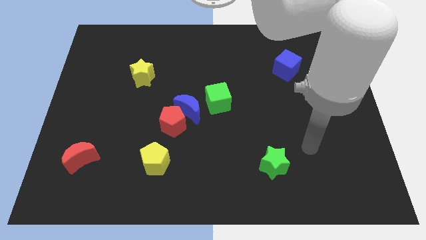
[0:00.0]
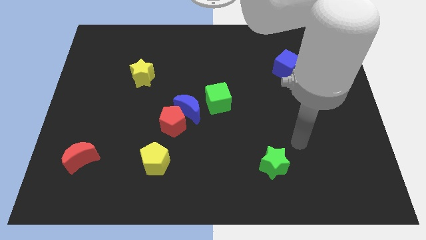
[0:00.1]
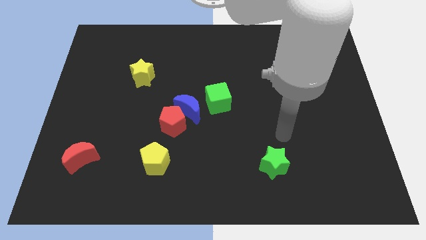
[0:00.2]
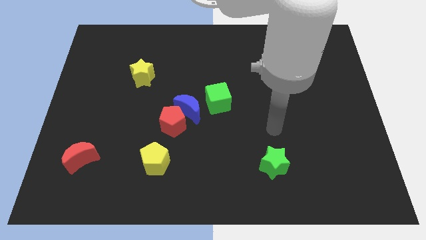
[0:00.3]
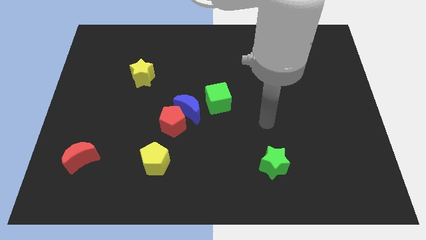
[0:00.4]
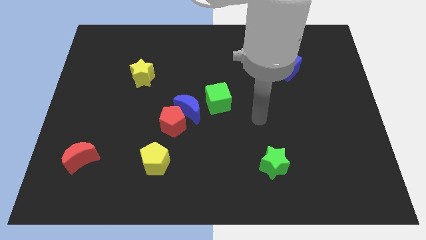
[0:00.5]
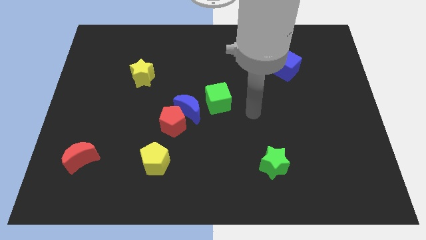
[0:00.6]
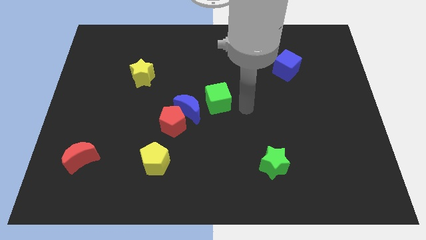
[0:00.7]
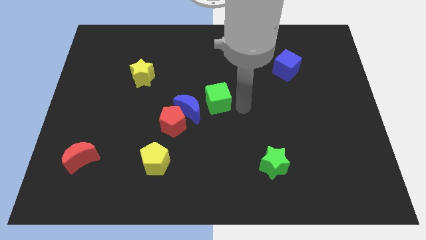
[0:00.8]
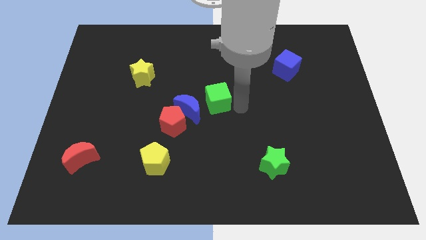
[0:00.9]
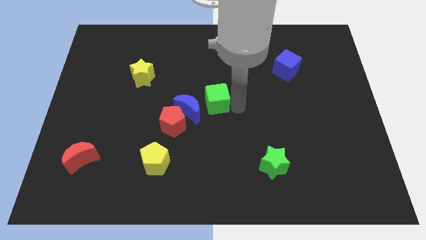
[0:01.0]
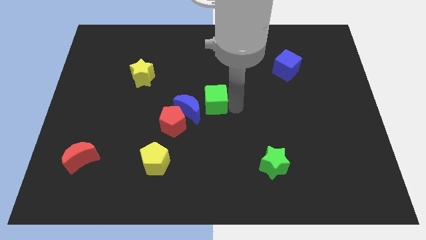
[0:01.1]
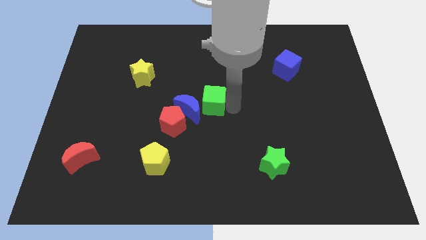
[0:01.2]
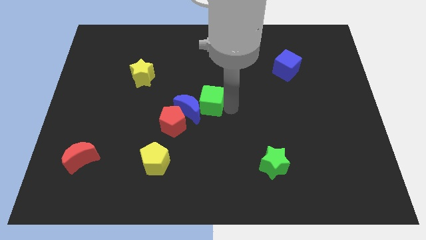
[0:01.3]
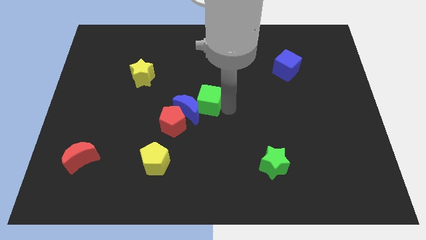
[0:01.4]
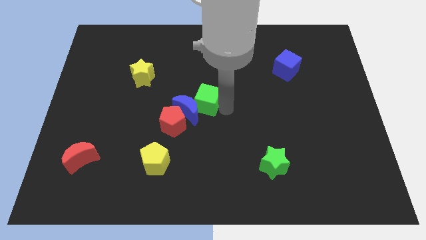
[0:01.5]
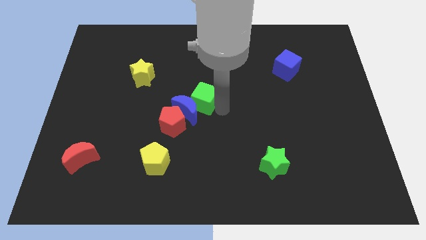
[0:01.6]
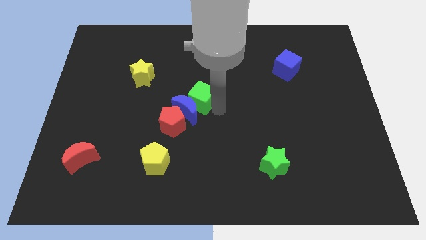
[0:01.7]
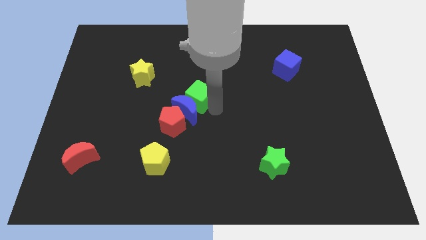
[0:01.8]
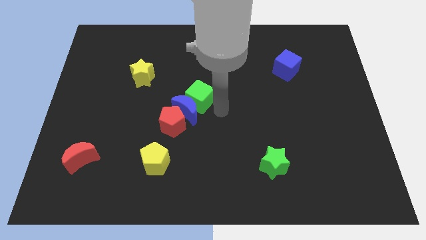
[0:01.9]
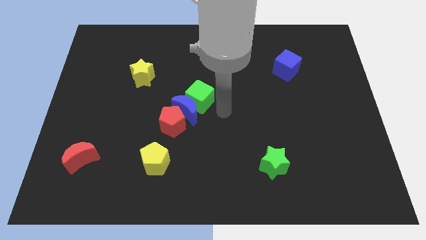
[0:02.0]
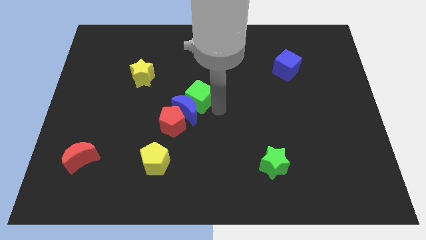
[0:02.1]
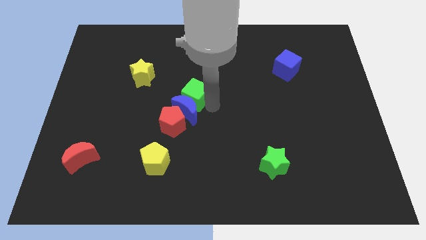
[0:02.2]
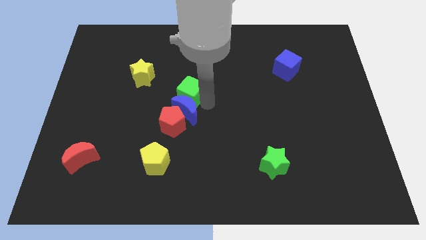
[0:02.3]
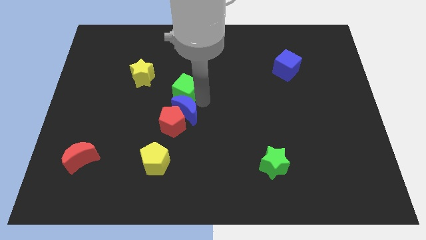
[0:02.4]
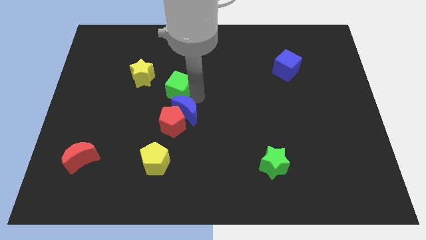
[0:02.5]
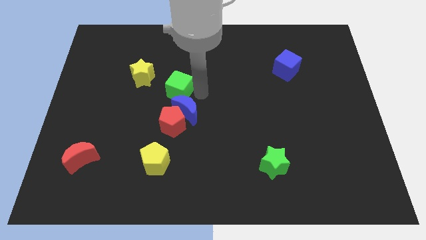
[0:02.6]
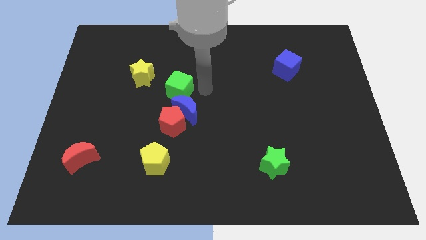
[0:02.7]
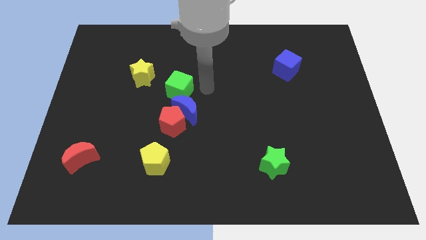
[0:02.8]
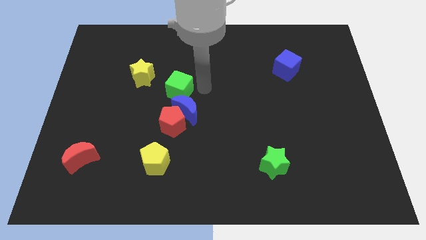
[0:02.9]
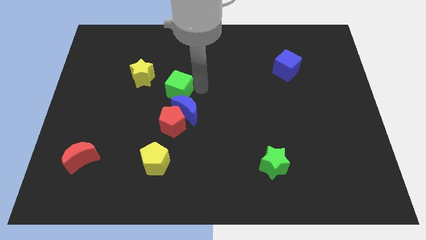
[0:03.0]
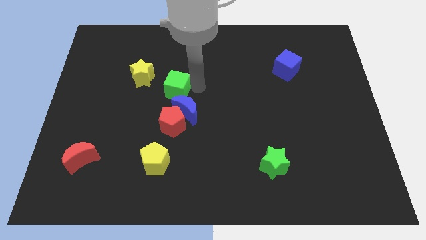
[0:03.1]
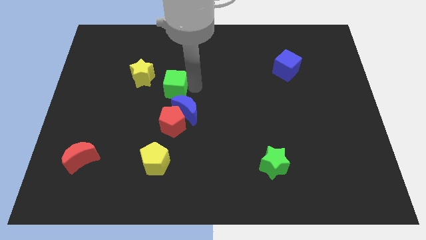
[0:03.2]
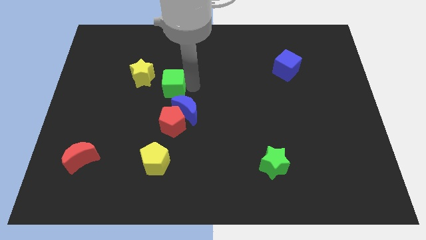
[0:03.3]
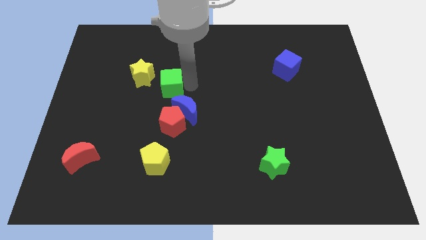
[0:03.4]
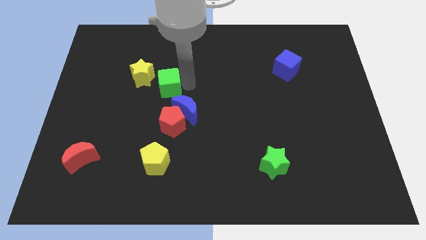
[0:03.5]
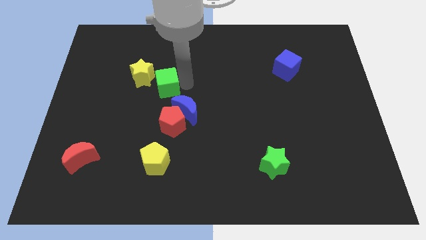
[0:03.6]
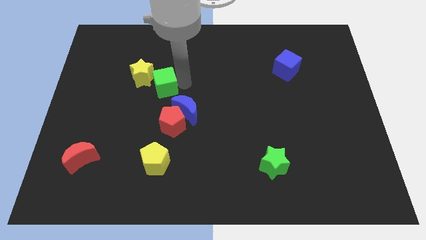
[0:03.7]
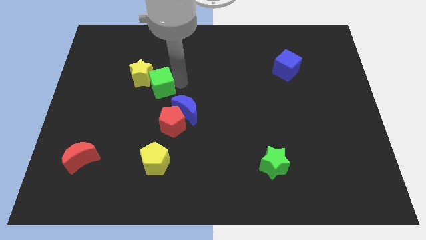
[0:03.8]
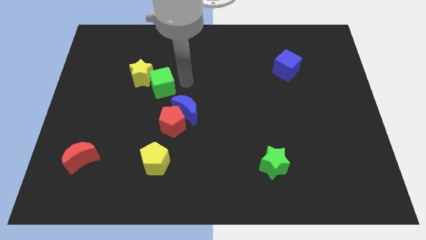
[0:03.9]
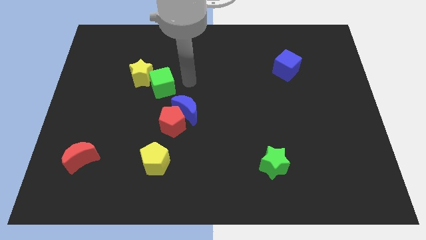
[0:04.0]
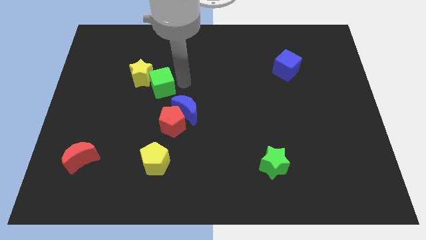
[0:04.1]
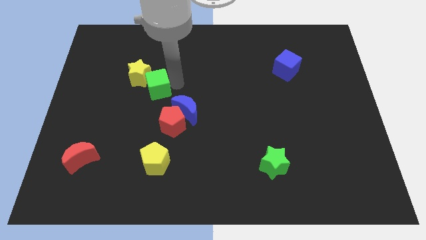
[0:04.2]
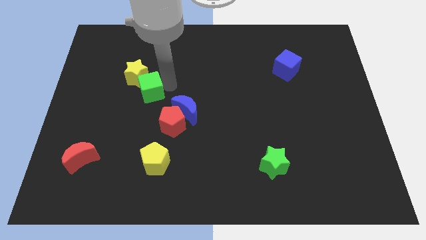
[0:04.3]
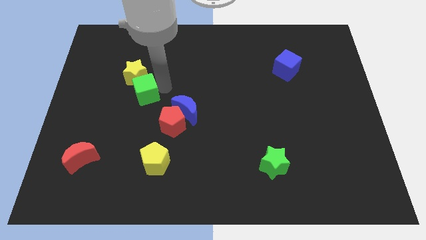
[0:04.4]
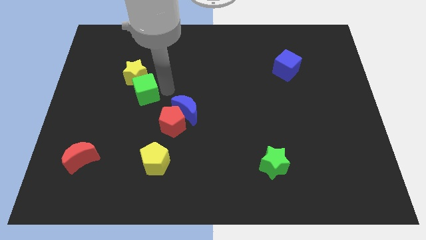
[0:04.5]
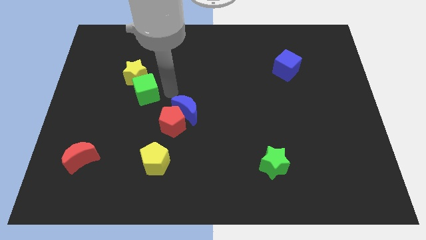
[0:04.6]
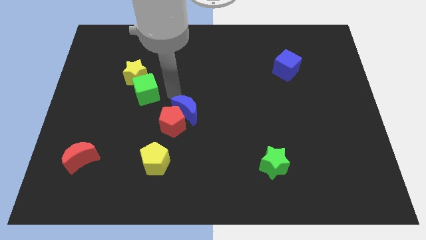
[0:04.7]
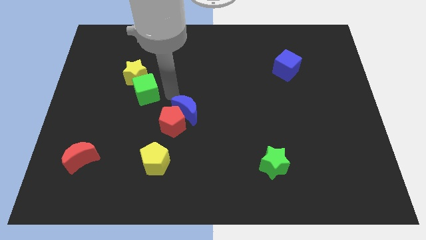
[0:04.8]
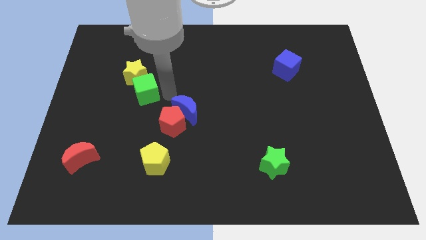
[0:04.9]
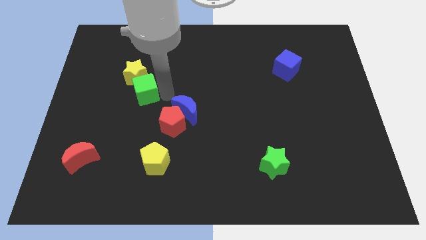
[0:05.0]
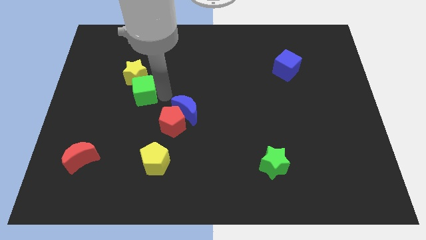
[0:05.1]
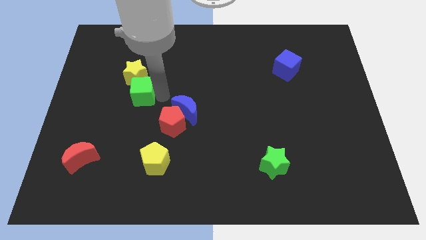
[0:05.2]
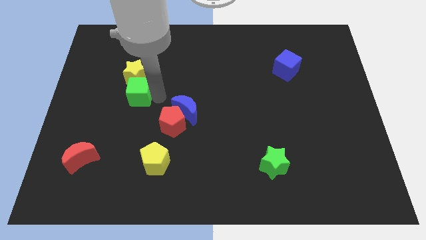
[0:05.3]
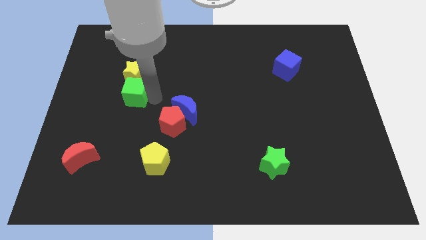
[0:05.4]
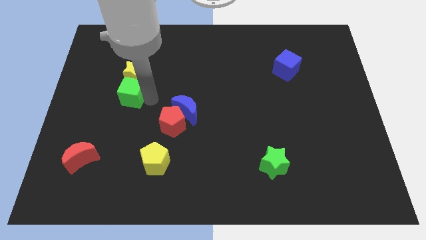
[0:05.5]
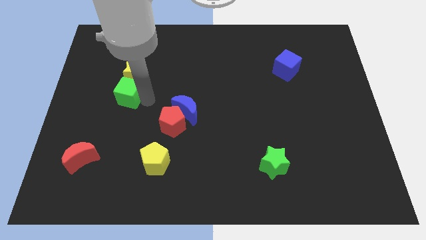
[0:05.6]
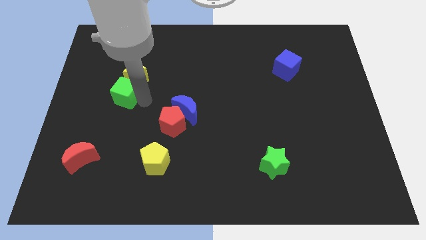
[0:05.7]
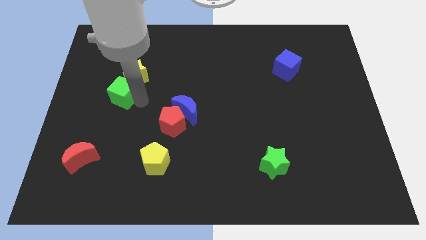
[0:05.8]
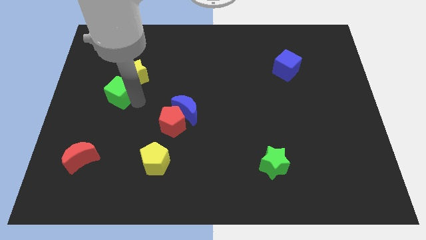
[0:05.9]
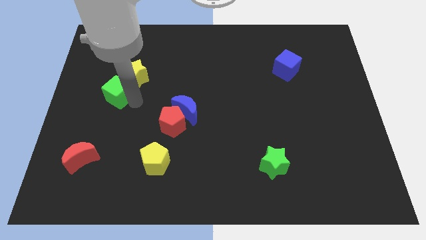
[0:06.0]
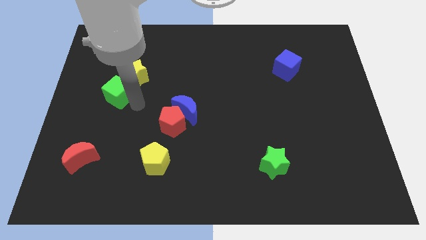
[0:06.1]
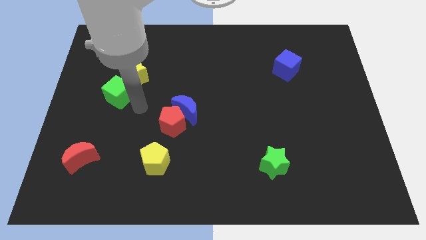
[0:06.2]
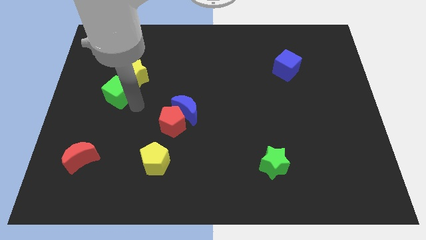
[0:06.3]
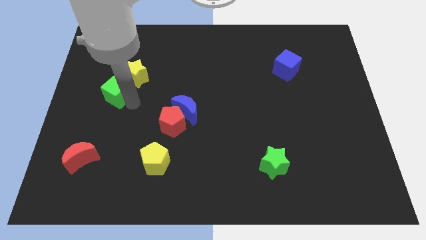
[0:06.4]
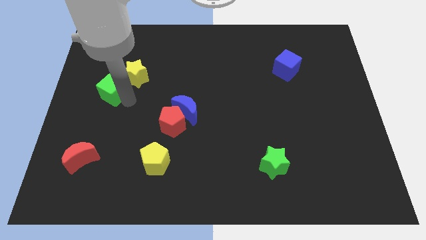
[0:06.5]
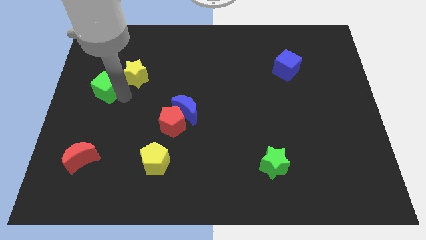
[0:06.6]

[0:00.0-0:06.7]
put the green cube to the left side of the board
